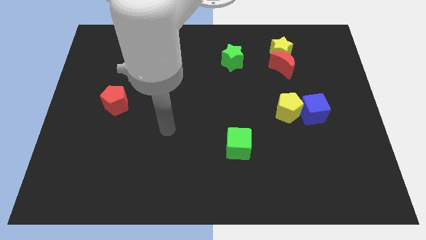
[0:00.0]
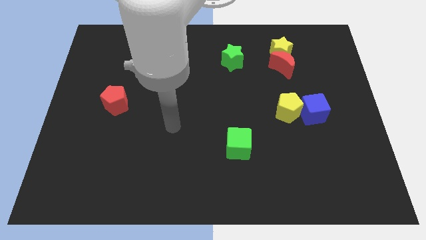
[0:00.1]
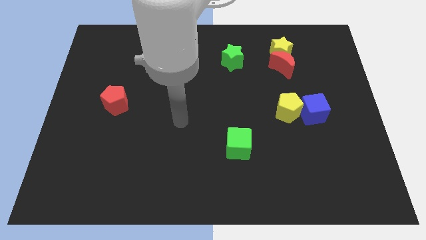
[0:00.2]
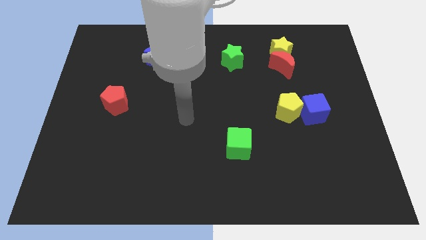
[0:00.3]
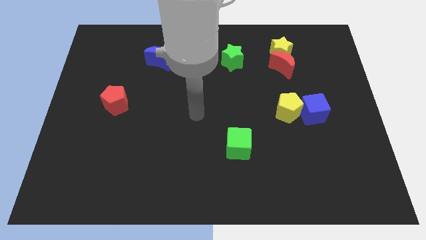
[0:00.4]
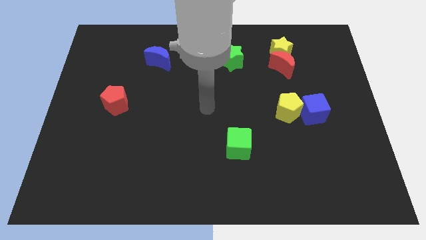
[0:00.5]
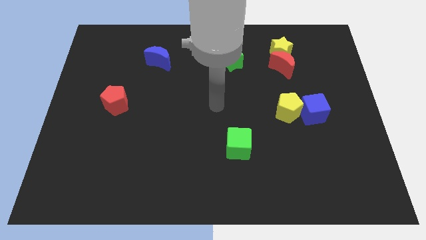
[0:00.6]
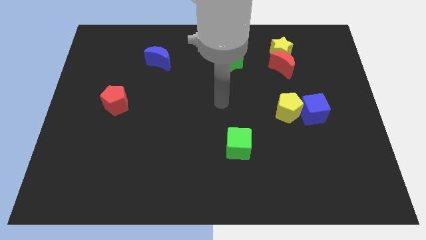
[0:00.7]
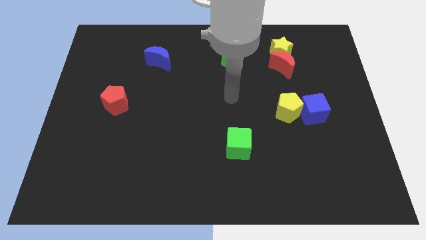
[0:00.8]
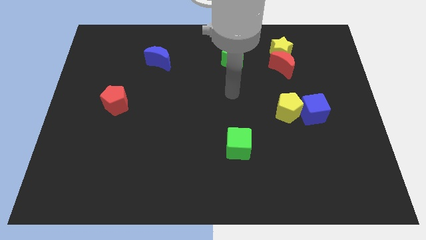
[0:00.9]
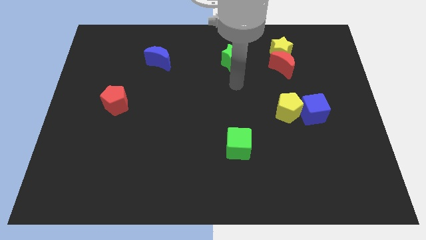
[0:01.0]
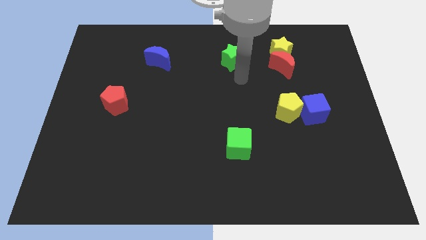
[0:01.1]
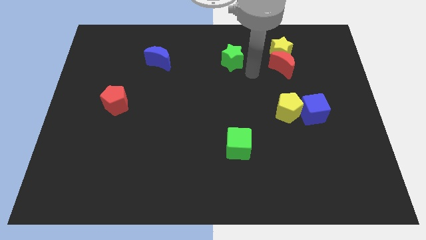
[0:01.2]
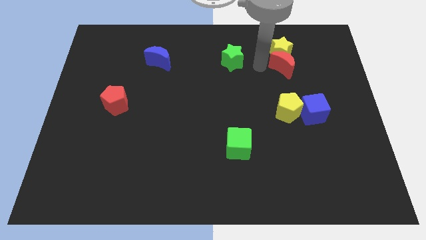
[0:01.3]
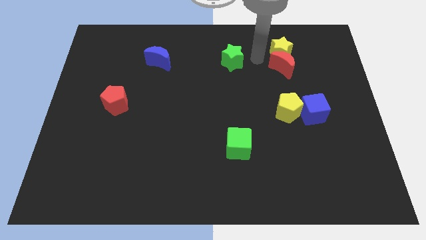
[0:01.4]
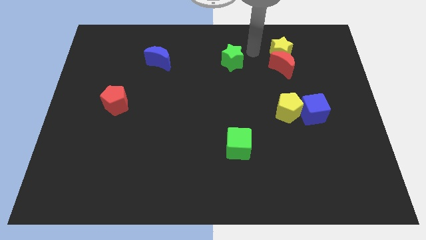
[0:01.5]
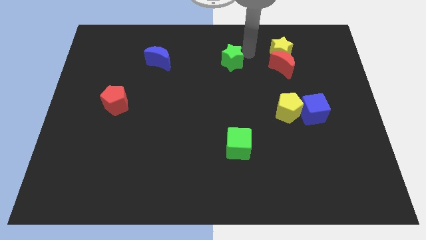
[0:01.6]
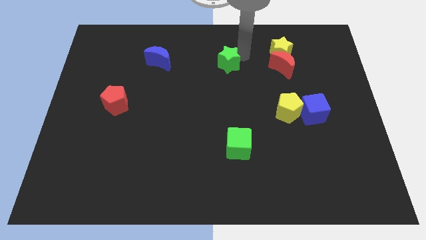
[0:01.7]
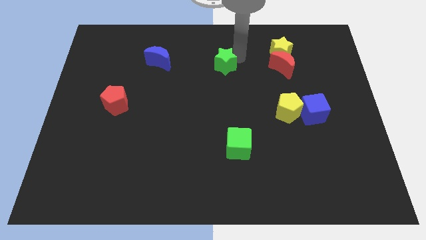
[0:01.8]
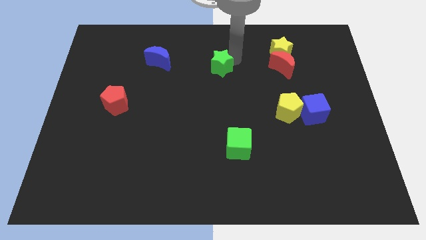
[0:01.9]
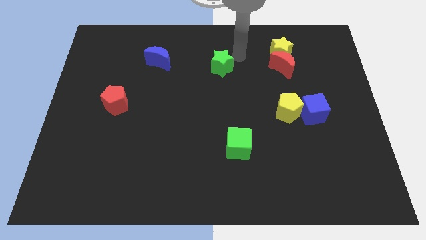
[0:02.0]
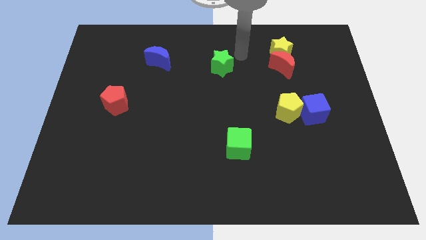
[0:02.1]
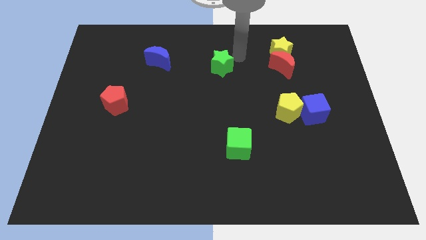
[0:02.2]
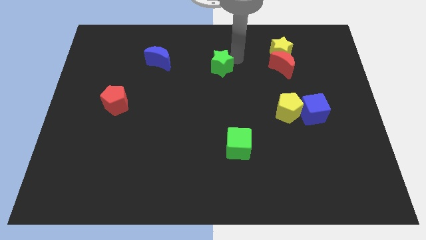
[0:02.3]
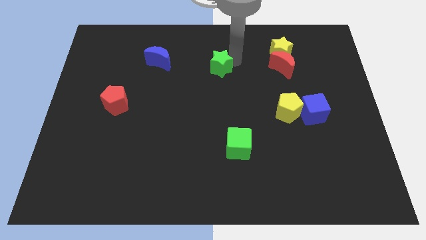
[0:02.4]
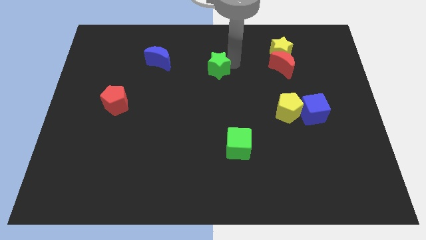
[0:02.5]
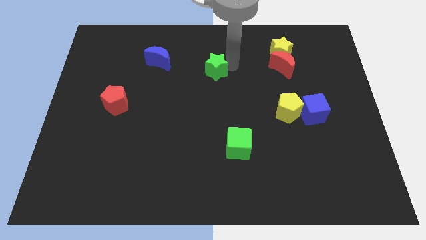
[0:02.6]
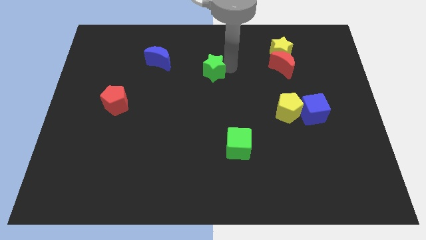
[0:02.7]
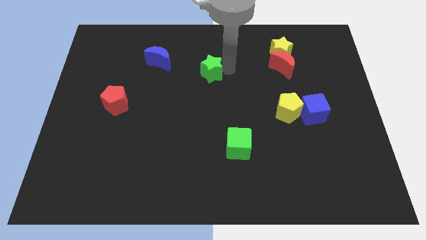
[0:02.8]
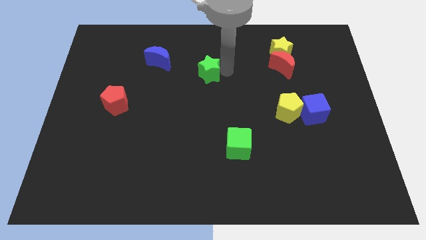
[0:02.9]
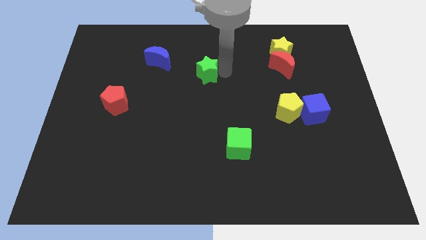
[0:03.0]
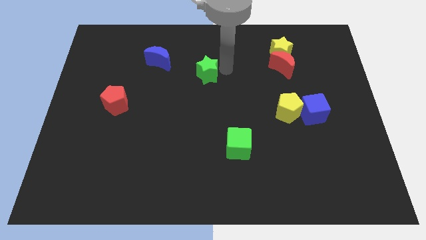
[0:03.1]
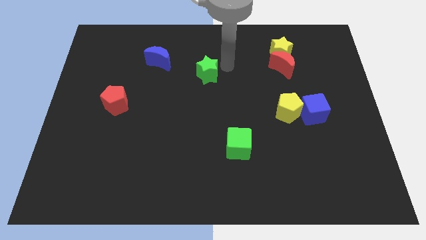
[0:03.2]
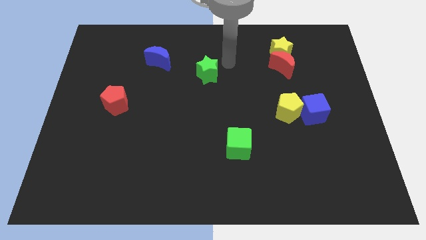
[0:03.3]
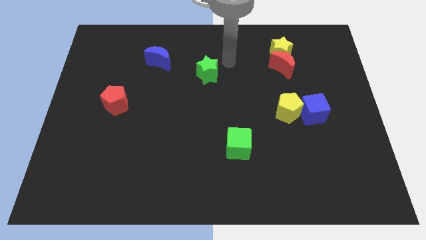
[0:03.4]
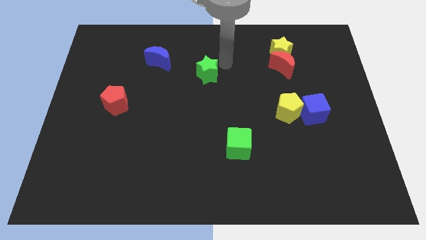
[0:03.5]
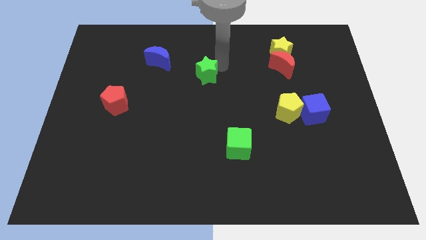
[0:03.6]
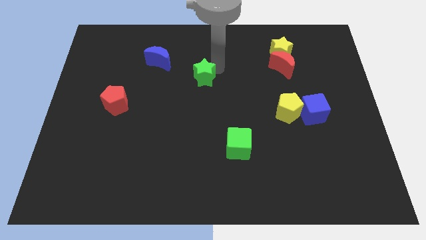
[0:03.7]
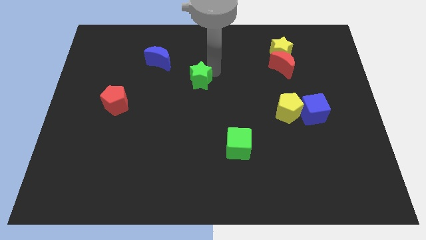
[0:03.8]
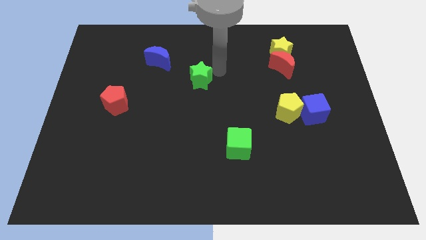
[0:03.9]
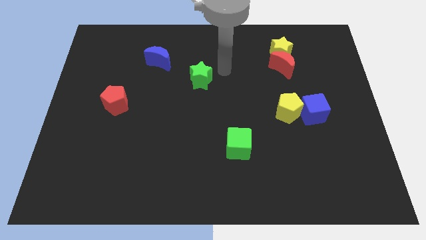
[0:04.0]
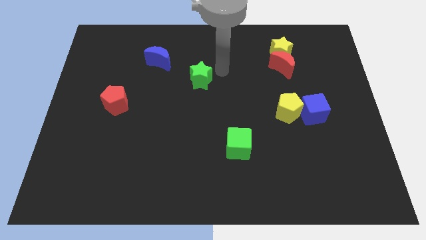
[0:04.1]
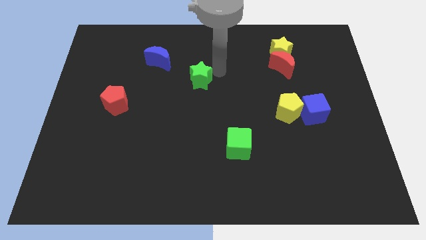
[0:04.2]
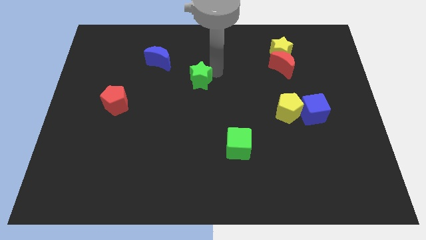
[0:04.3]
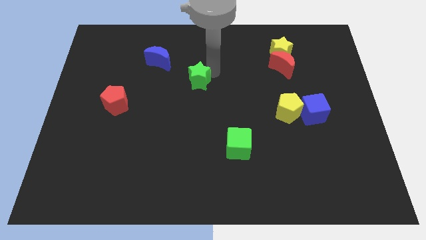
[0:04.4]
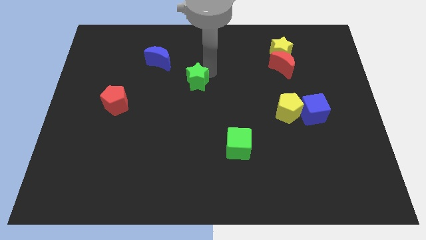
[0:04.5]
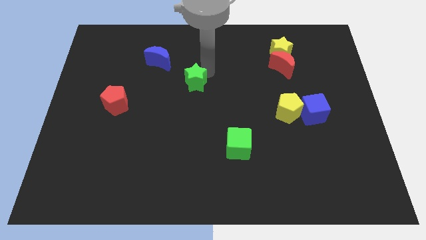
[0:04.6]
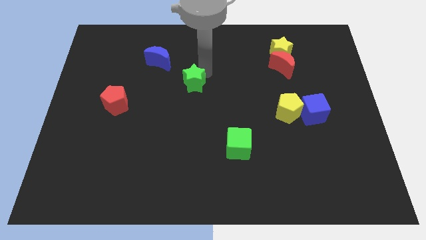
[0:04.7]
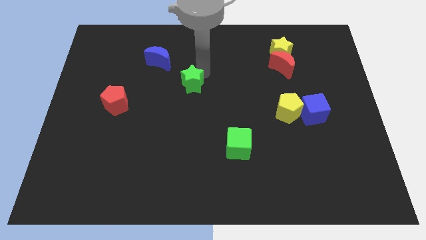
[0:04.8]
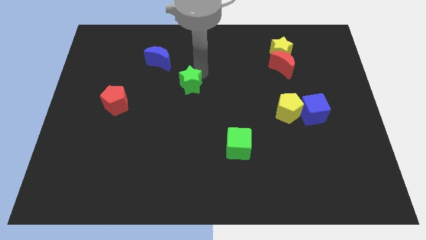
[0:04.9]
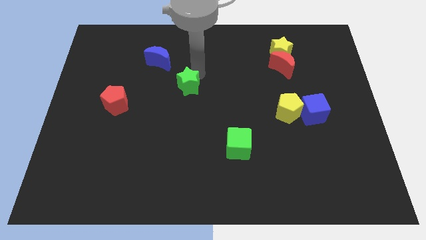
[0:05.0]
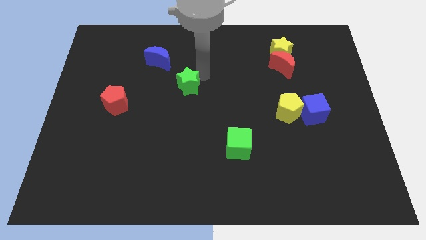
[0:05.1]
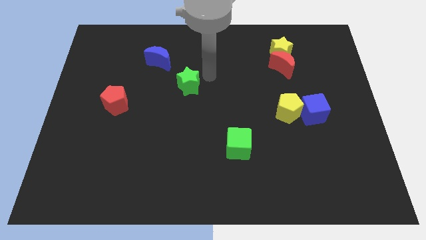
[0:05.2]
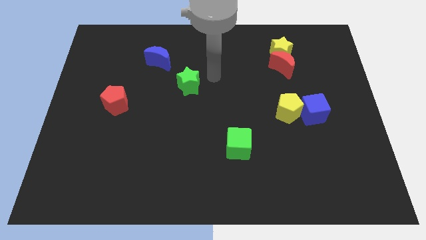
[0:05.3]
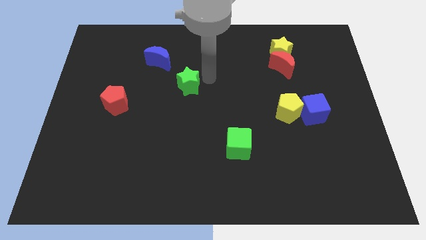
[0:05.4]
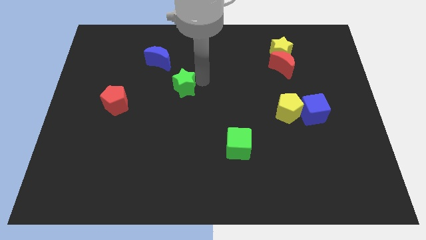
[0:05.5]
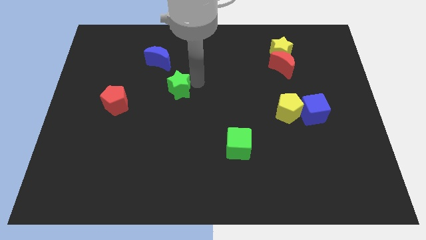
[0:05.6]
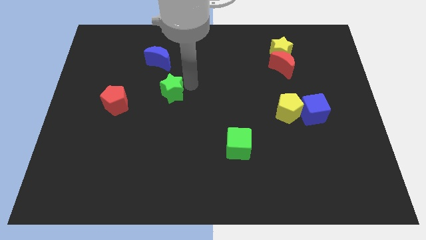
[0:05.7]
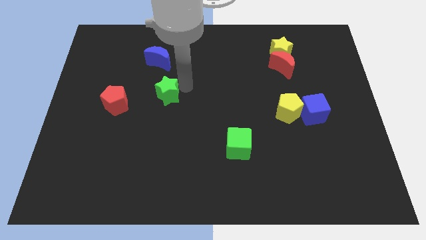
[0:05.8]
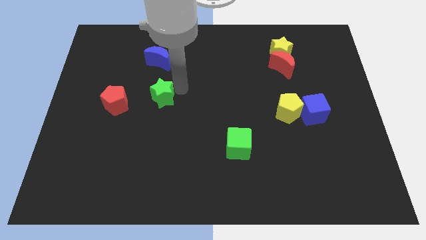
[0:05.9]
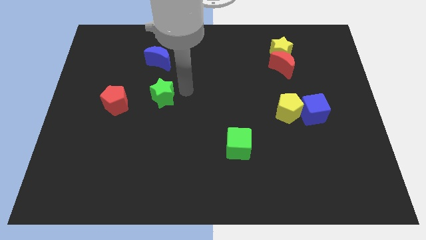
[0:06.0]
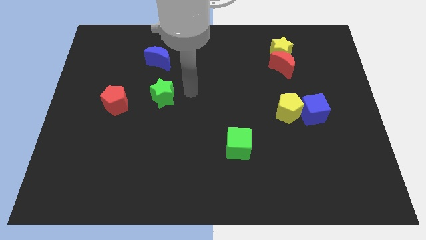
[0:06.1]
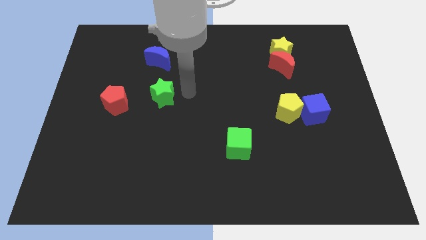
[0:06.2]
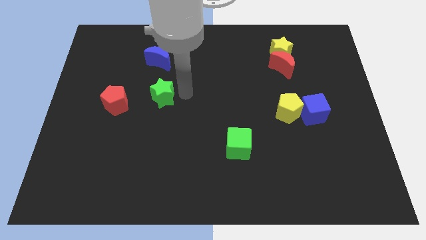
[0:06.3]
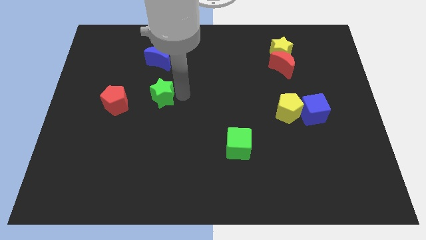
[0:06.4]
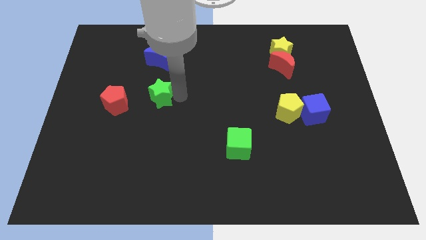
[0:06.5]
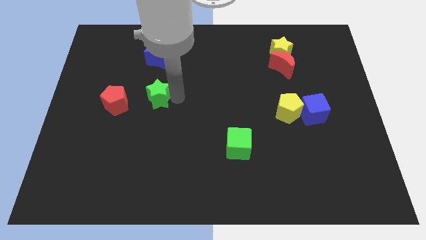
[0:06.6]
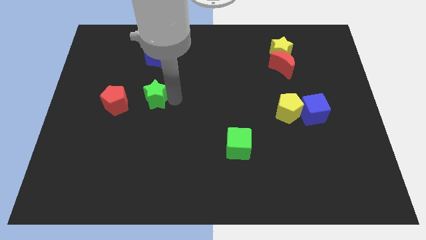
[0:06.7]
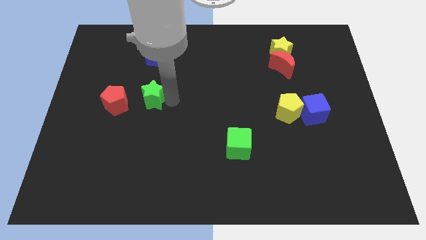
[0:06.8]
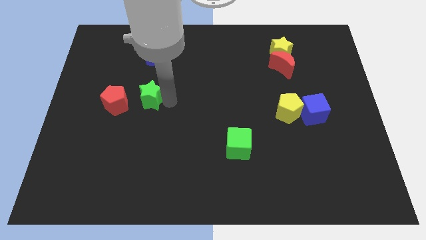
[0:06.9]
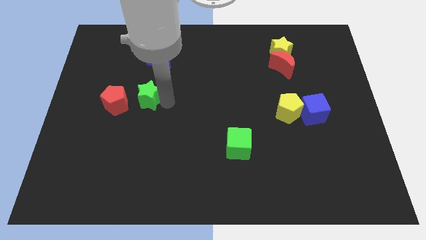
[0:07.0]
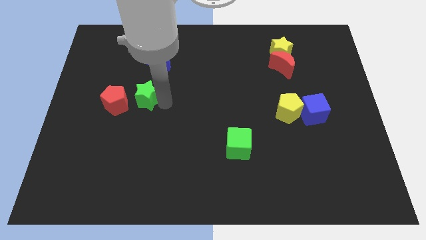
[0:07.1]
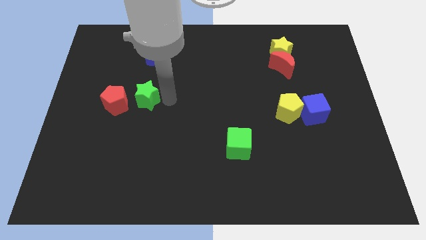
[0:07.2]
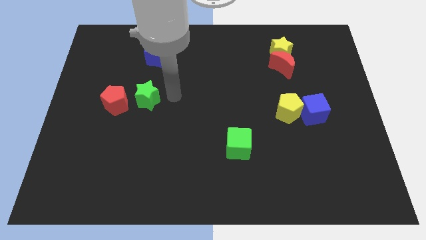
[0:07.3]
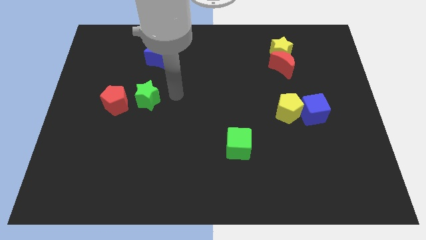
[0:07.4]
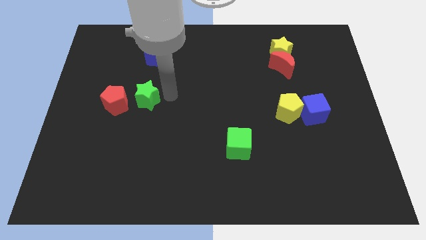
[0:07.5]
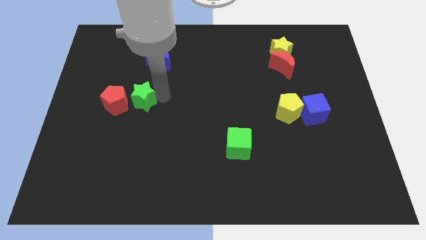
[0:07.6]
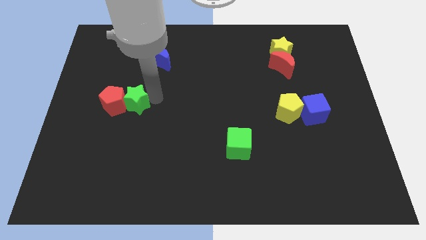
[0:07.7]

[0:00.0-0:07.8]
put the green star towards the red pentagon
